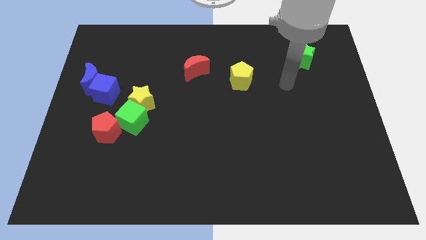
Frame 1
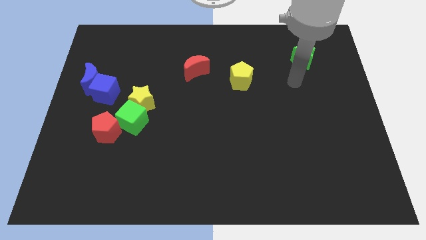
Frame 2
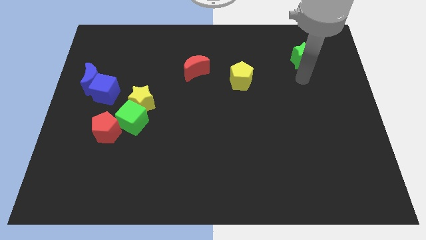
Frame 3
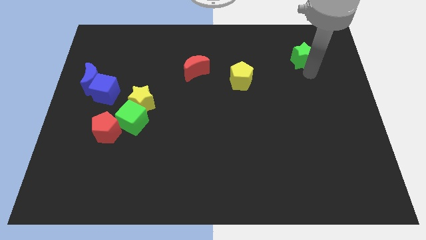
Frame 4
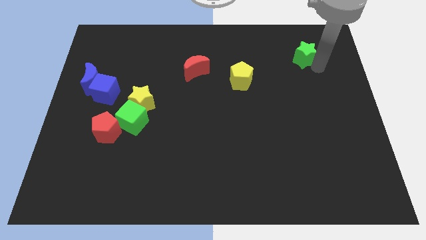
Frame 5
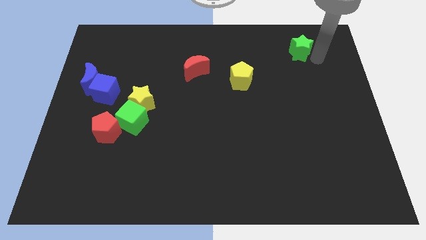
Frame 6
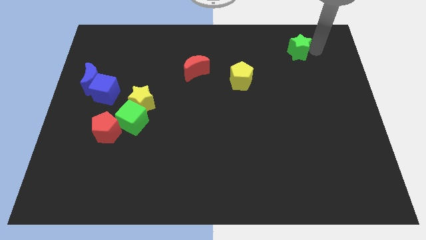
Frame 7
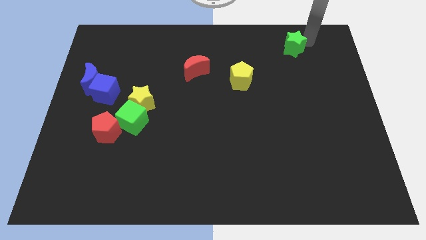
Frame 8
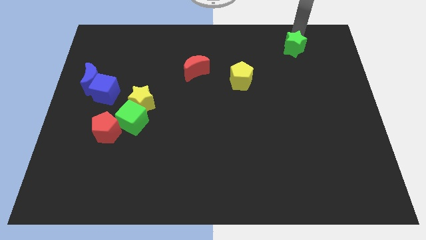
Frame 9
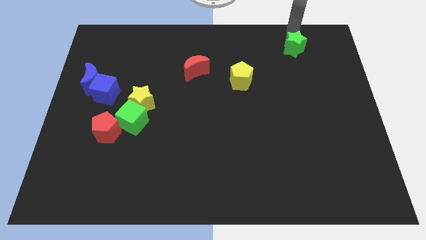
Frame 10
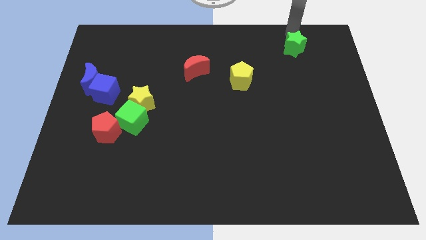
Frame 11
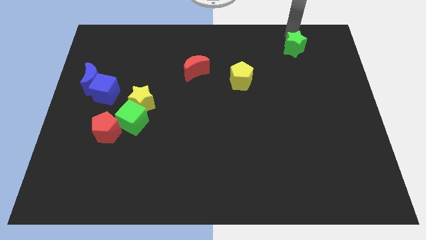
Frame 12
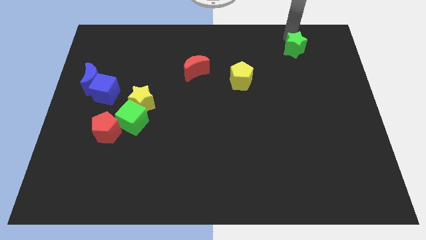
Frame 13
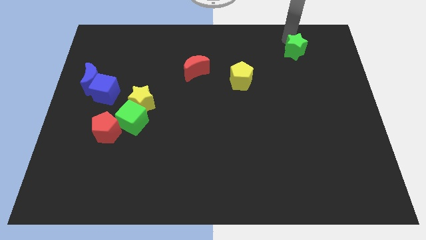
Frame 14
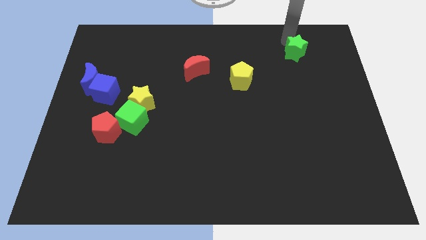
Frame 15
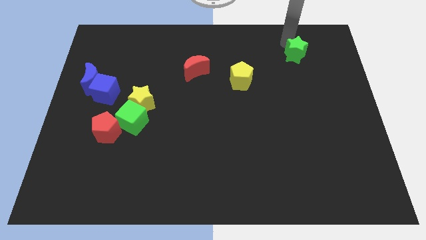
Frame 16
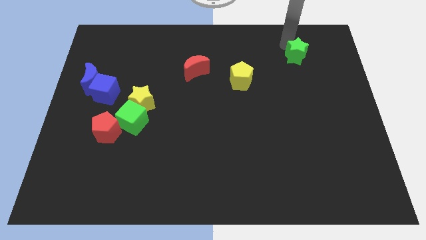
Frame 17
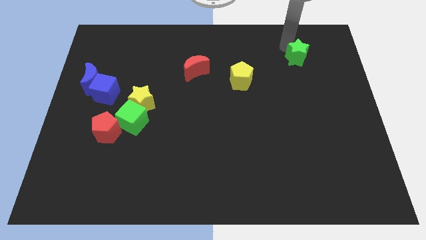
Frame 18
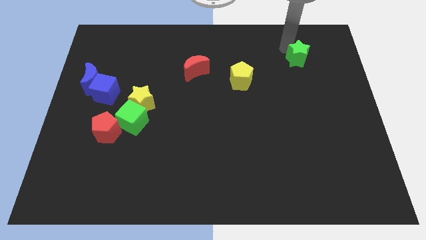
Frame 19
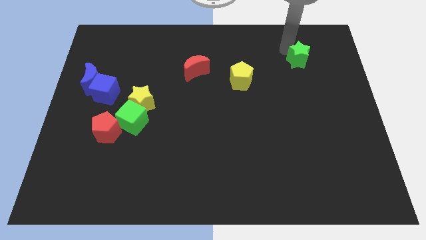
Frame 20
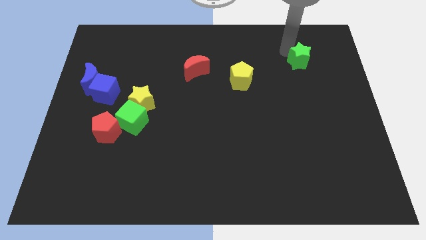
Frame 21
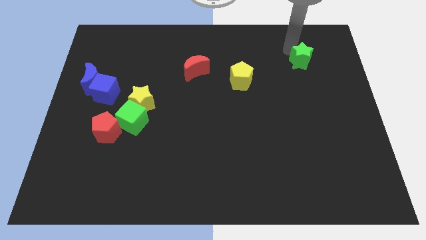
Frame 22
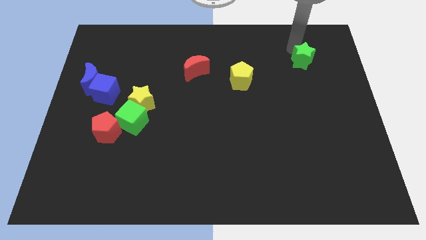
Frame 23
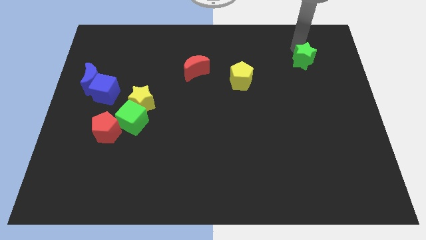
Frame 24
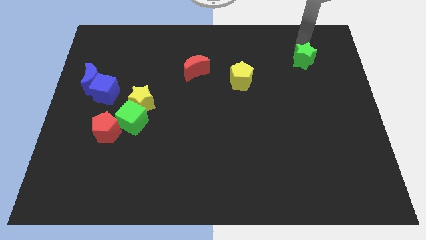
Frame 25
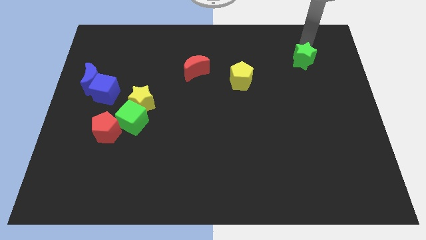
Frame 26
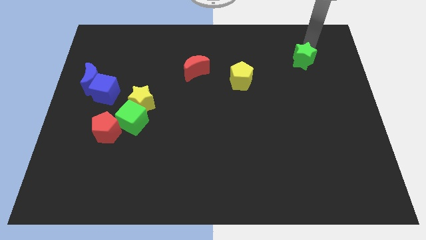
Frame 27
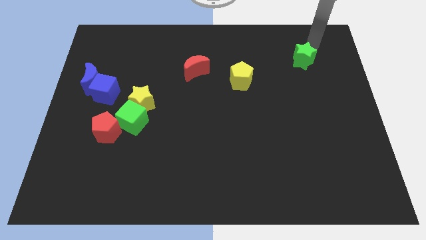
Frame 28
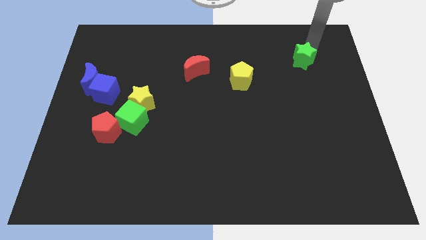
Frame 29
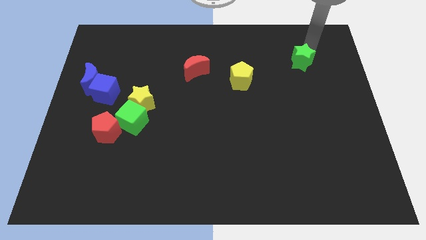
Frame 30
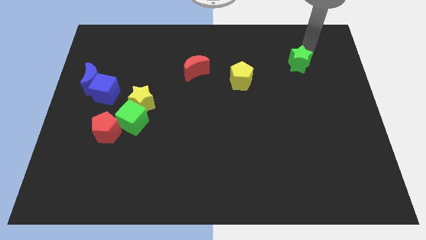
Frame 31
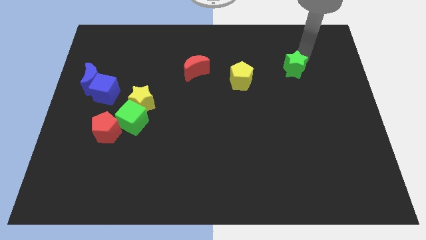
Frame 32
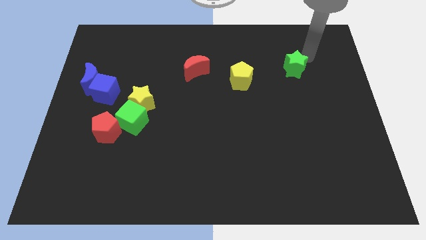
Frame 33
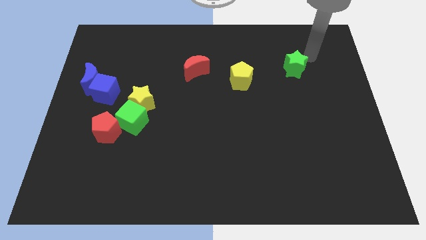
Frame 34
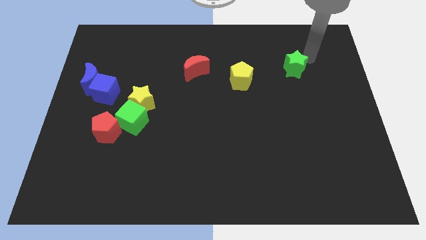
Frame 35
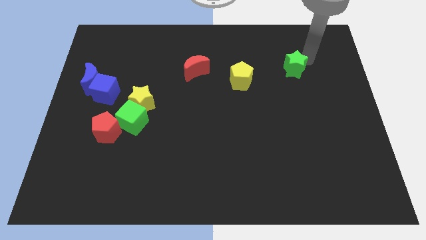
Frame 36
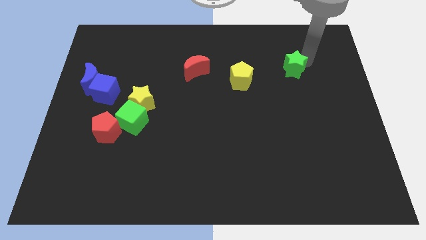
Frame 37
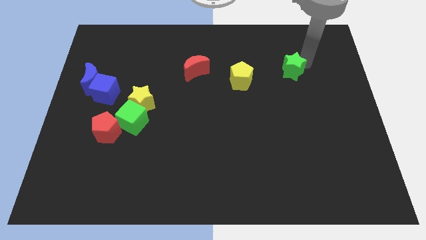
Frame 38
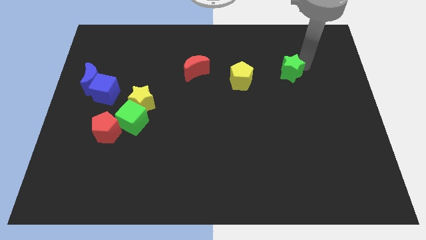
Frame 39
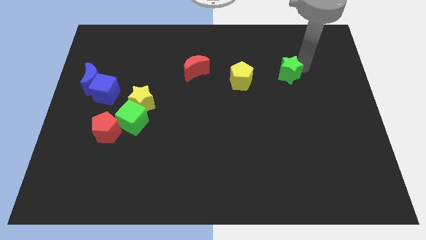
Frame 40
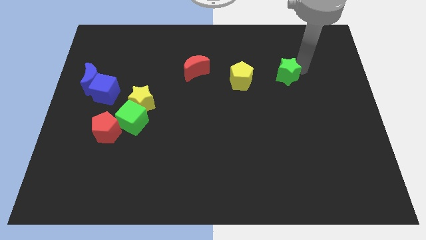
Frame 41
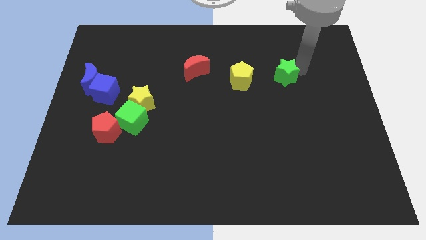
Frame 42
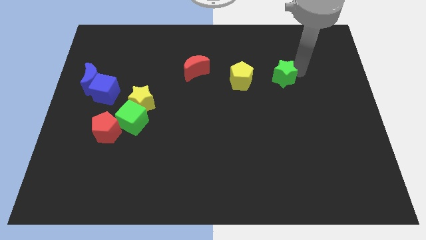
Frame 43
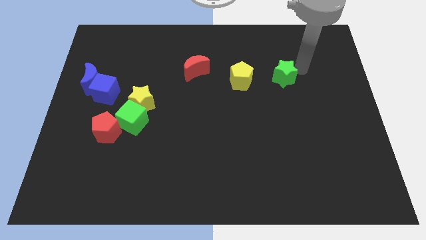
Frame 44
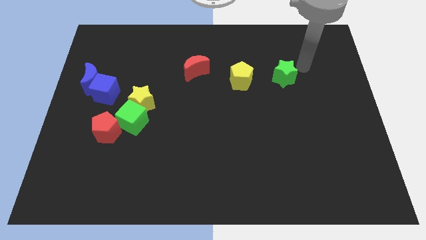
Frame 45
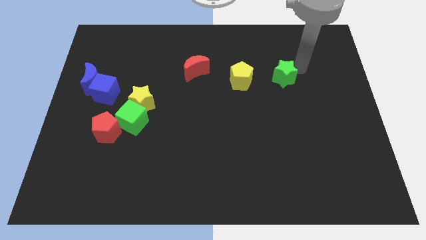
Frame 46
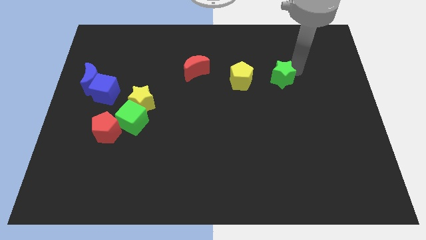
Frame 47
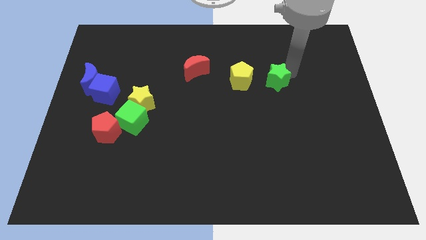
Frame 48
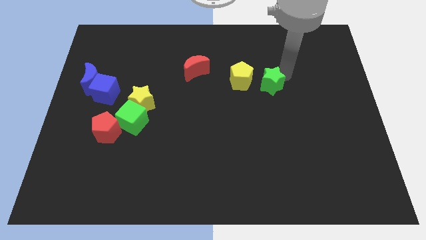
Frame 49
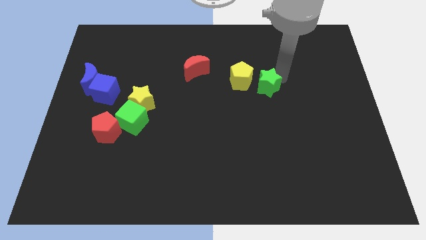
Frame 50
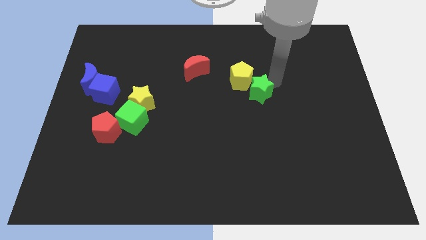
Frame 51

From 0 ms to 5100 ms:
move the green star to the middle of the board

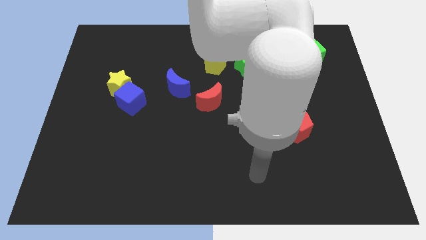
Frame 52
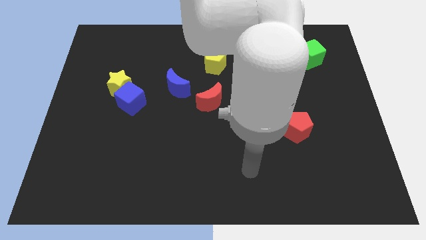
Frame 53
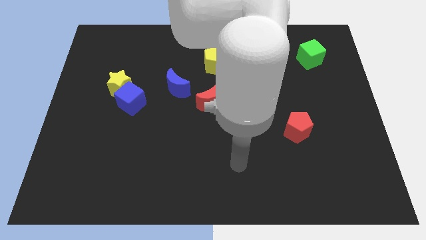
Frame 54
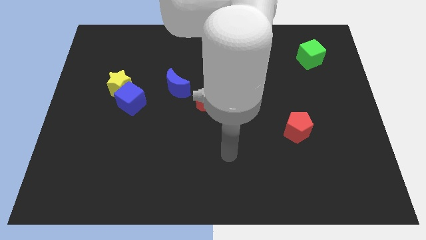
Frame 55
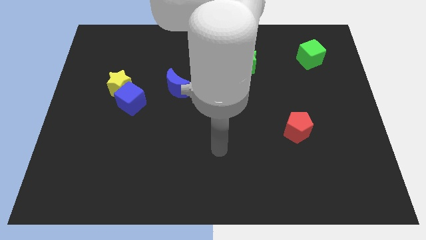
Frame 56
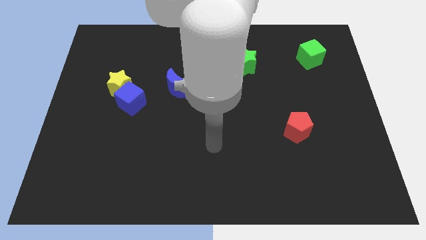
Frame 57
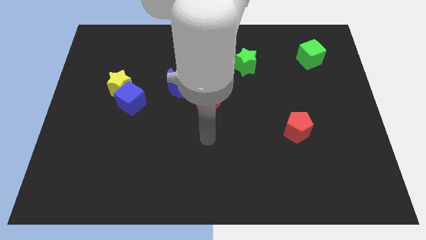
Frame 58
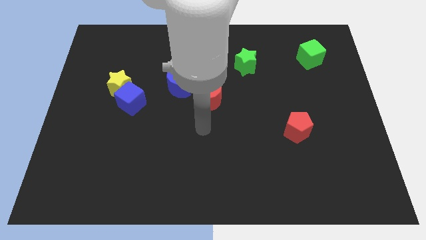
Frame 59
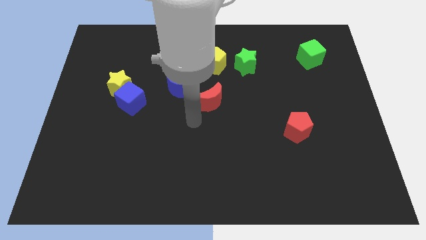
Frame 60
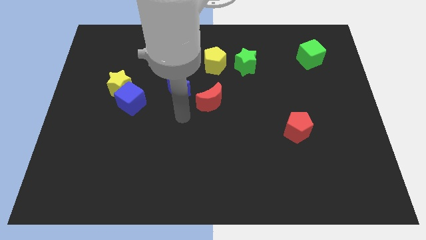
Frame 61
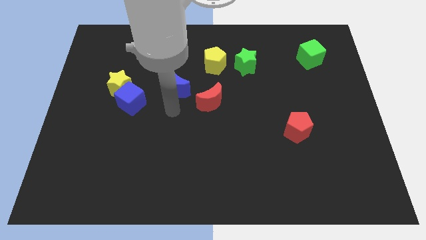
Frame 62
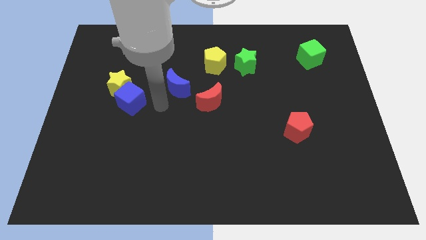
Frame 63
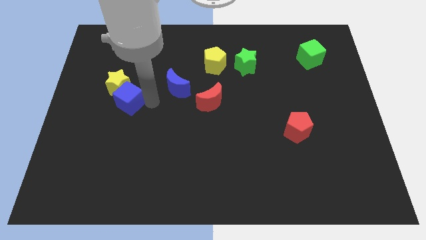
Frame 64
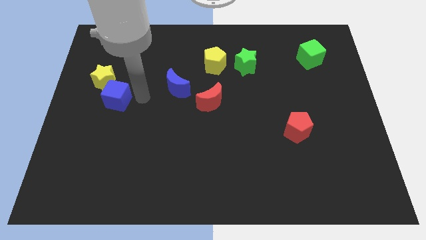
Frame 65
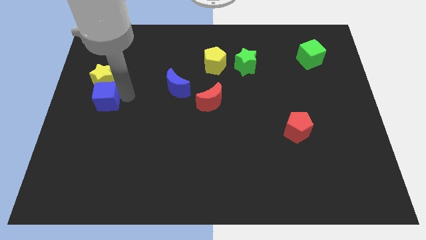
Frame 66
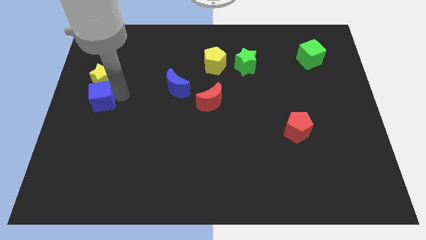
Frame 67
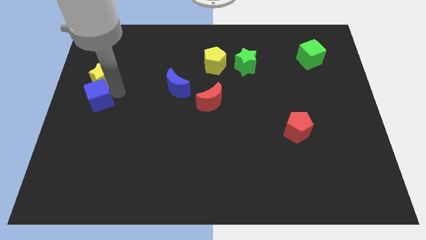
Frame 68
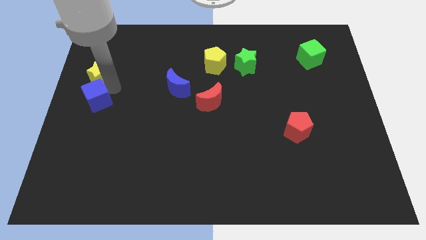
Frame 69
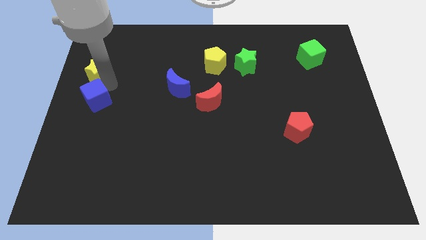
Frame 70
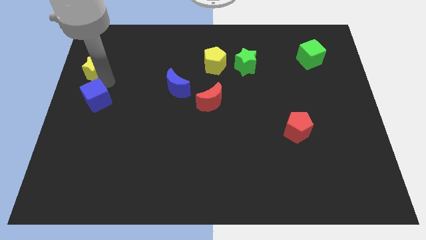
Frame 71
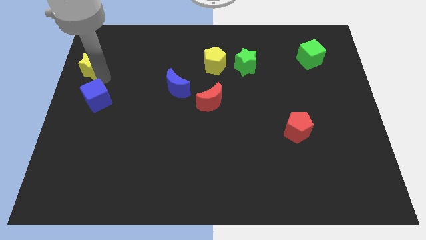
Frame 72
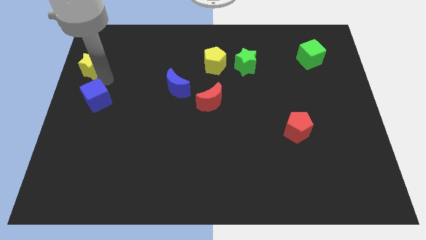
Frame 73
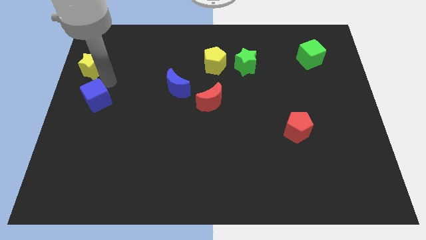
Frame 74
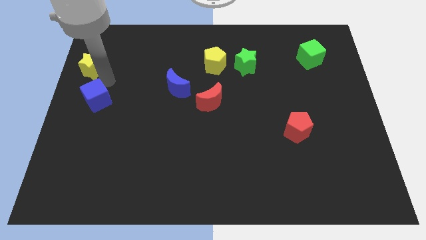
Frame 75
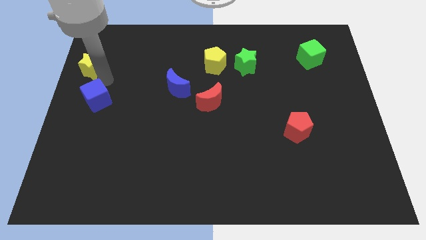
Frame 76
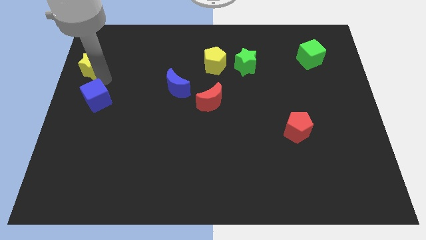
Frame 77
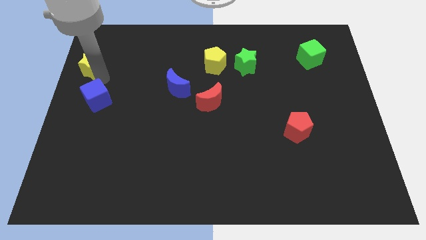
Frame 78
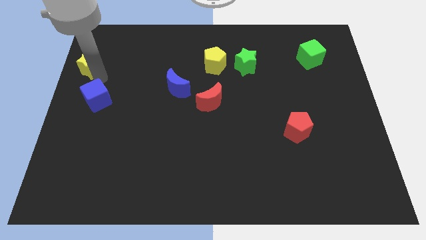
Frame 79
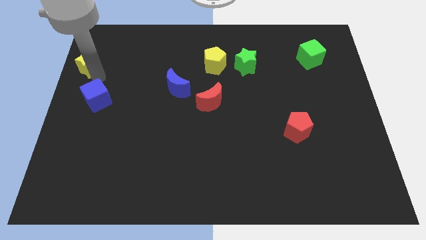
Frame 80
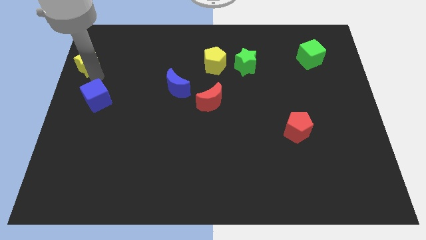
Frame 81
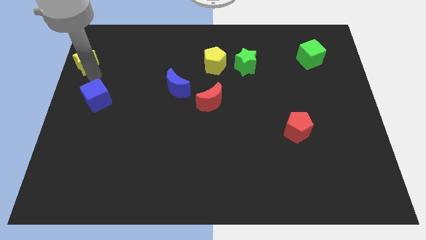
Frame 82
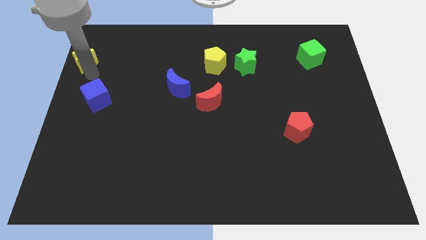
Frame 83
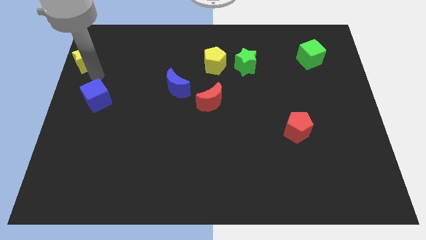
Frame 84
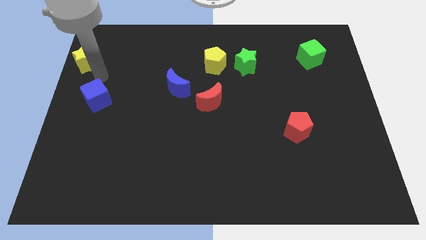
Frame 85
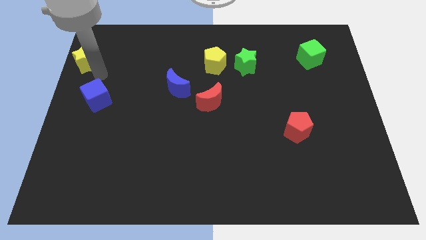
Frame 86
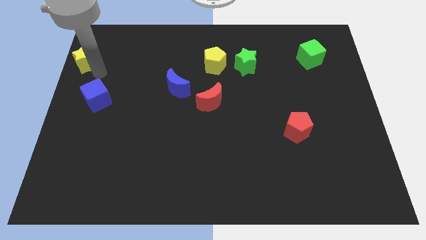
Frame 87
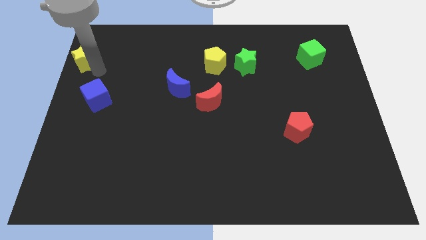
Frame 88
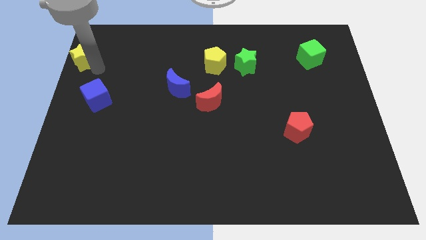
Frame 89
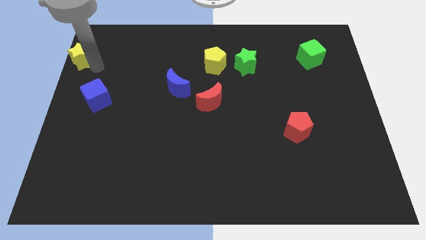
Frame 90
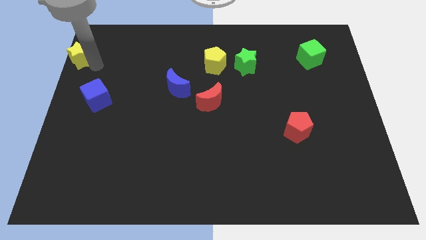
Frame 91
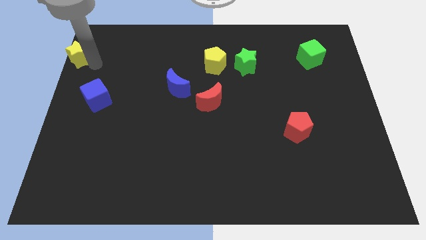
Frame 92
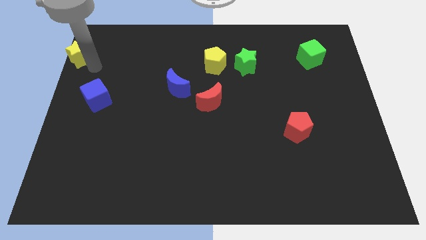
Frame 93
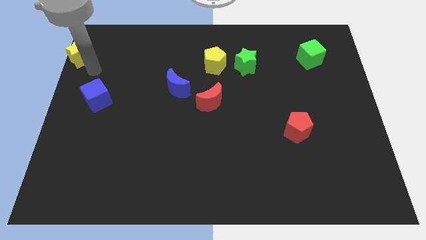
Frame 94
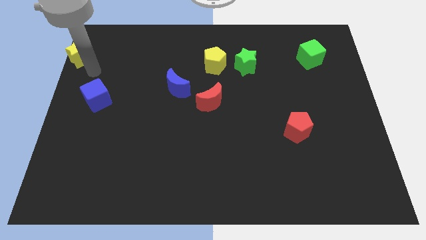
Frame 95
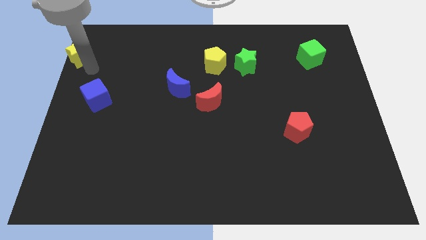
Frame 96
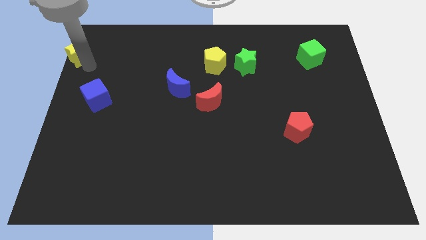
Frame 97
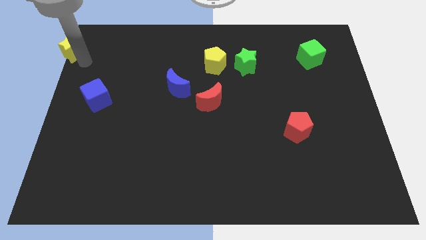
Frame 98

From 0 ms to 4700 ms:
move the yellow star to the upper left corner
